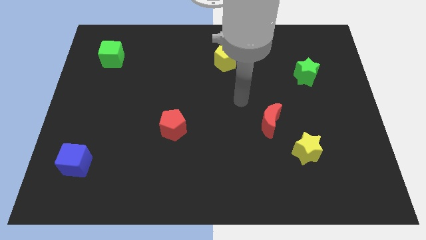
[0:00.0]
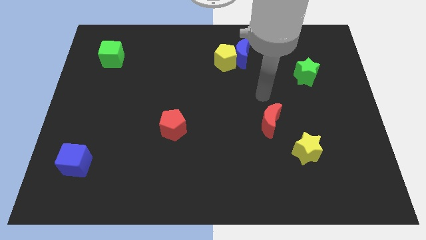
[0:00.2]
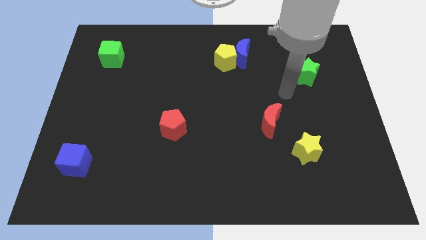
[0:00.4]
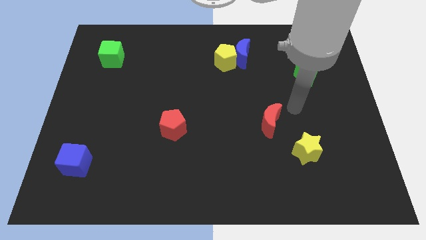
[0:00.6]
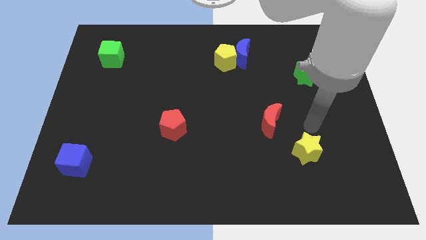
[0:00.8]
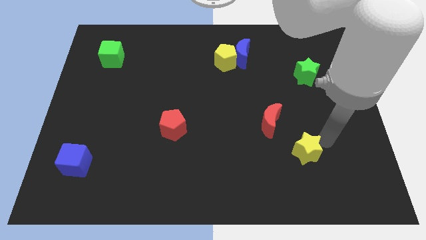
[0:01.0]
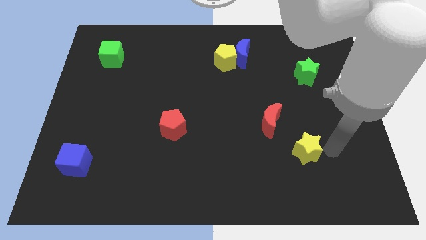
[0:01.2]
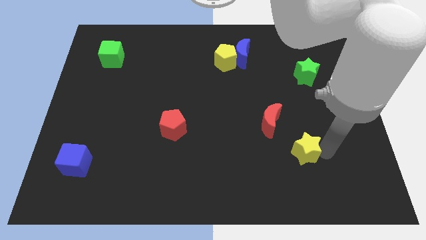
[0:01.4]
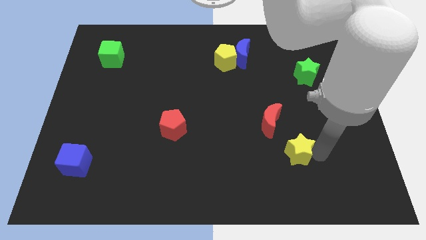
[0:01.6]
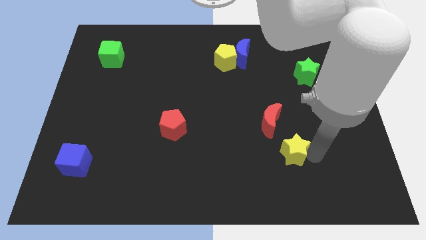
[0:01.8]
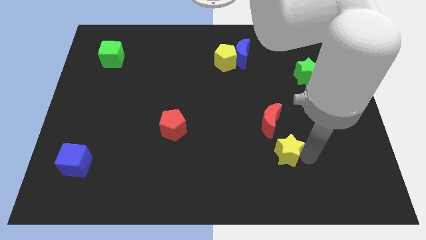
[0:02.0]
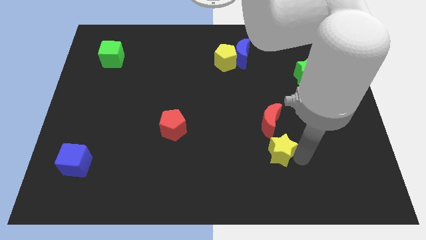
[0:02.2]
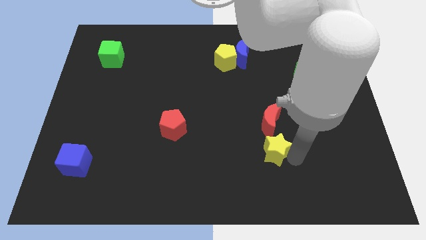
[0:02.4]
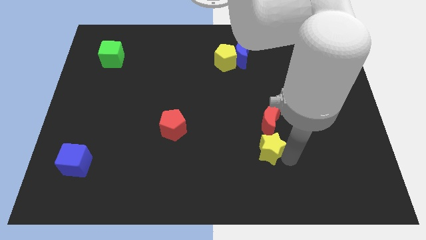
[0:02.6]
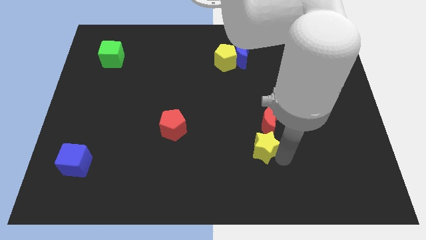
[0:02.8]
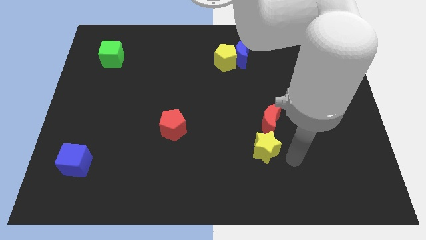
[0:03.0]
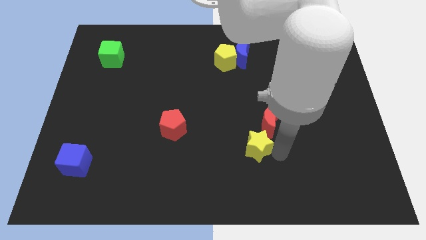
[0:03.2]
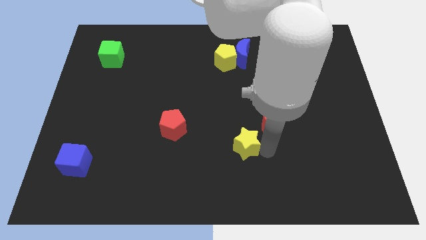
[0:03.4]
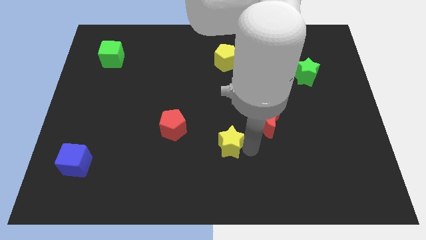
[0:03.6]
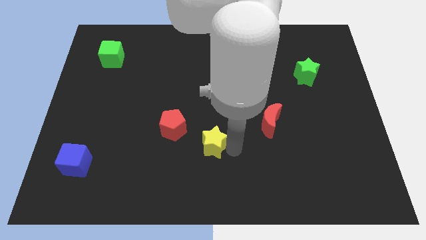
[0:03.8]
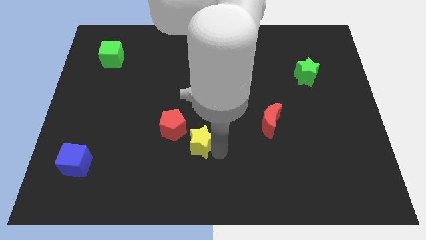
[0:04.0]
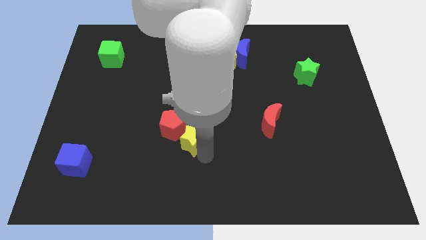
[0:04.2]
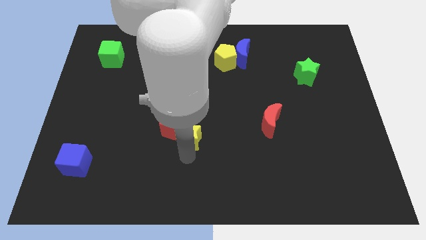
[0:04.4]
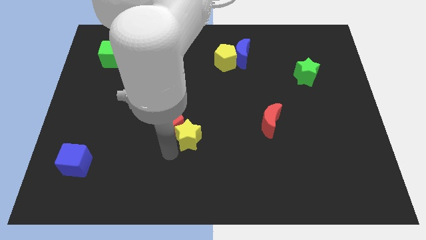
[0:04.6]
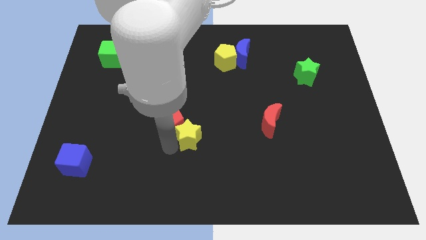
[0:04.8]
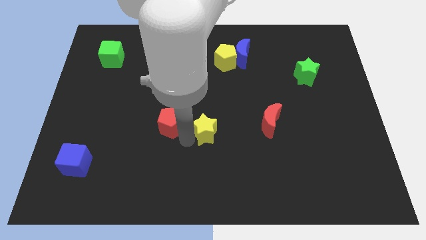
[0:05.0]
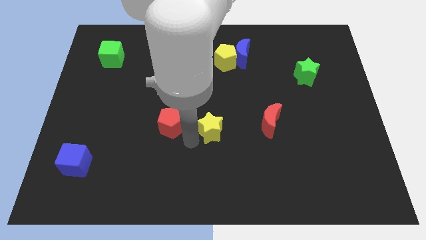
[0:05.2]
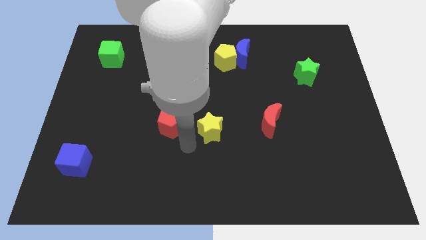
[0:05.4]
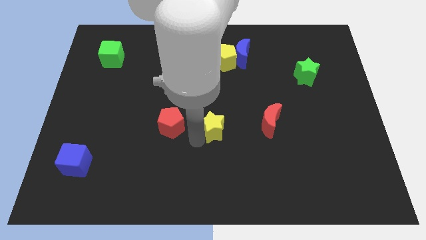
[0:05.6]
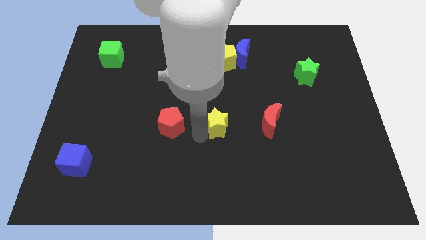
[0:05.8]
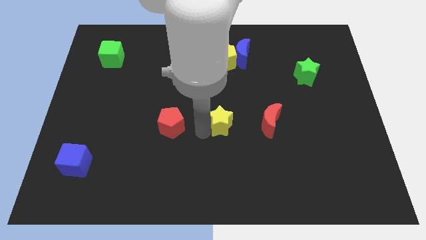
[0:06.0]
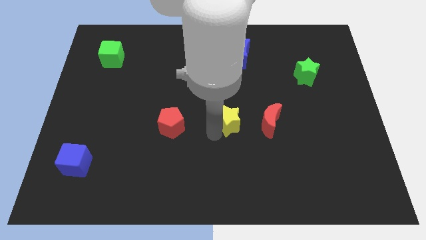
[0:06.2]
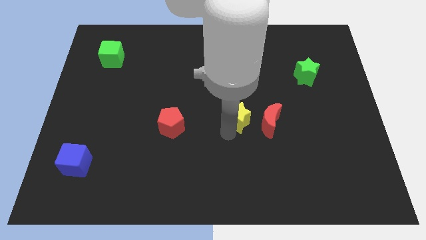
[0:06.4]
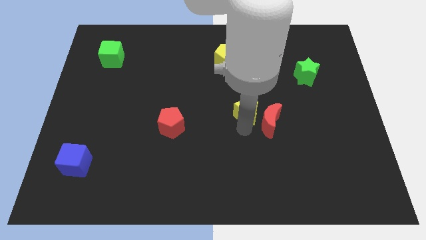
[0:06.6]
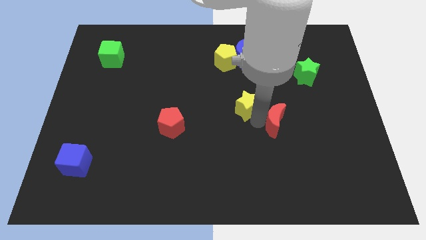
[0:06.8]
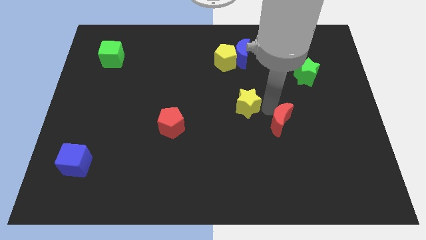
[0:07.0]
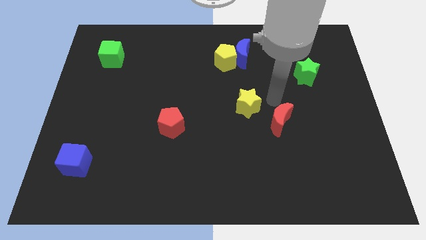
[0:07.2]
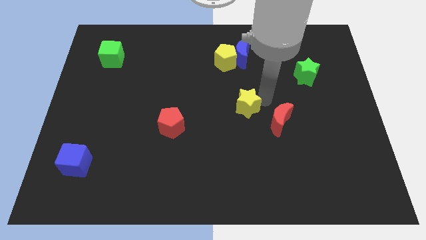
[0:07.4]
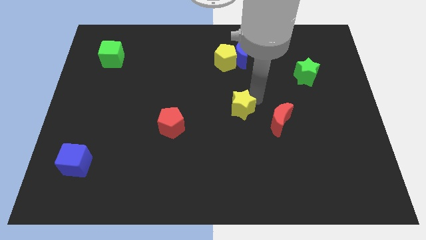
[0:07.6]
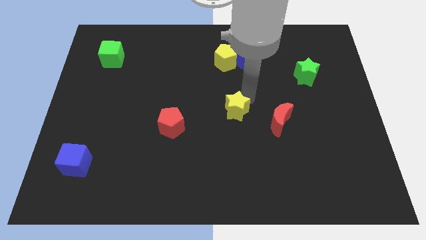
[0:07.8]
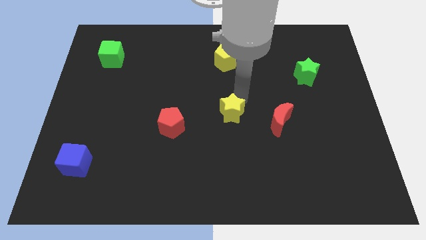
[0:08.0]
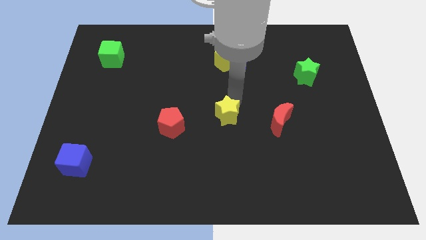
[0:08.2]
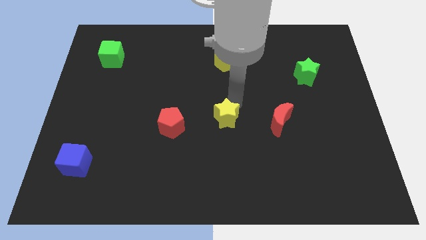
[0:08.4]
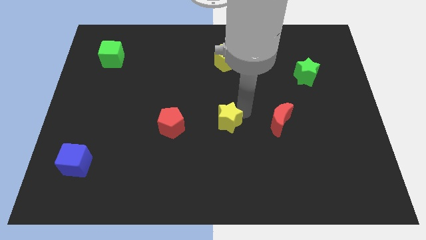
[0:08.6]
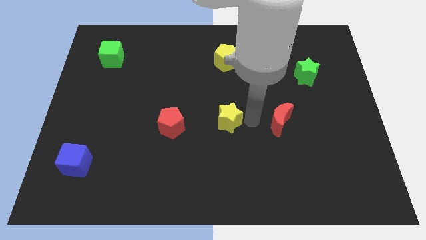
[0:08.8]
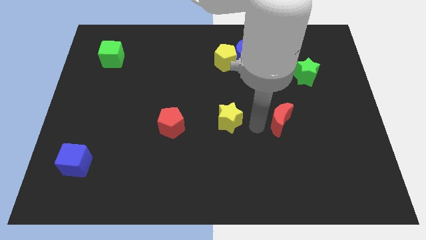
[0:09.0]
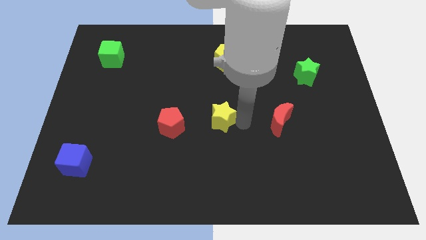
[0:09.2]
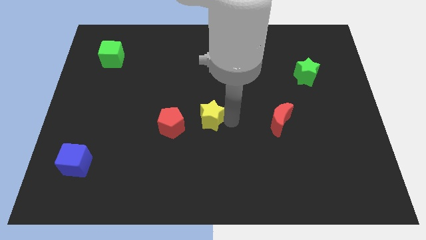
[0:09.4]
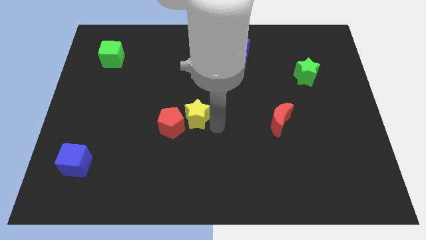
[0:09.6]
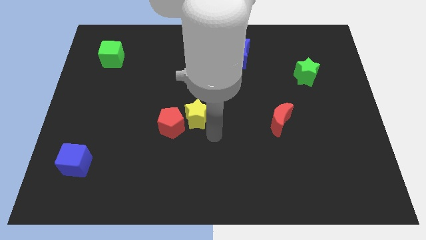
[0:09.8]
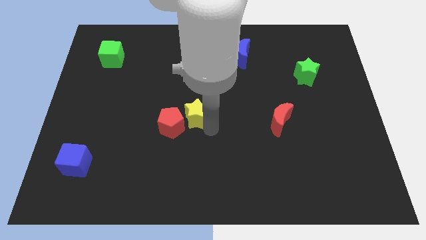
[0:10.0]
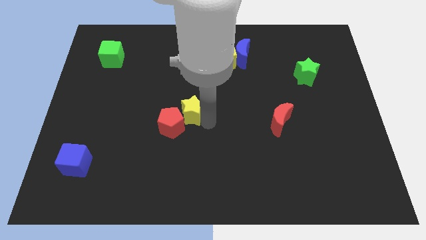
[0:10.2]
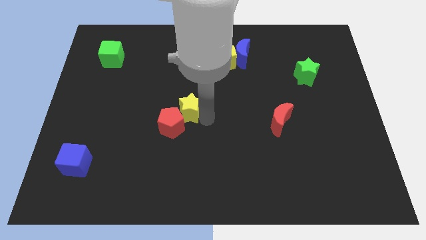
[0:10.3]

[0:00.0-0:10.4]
put the yellow star to the top side of the red pentagon

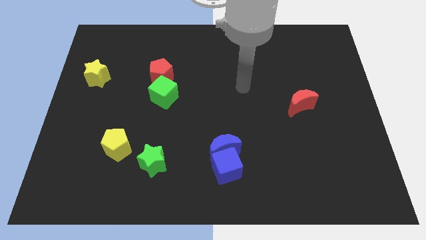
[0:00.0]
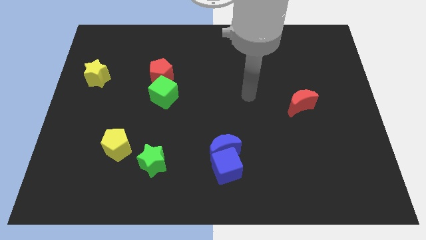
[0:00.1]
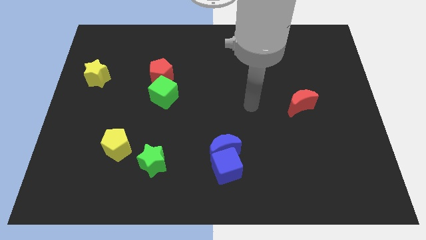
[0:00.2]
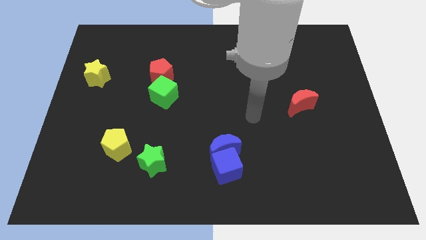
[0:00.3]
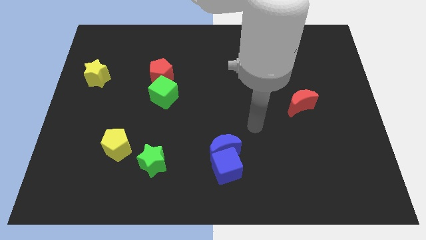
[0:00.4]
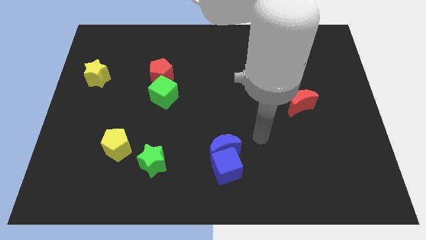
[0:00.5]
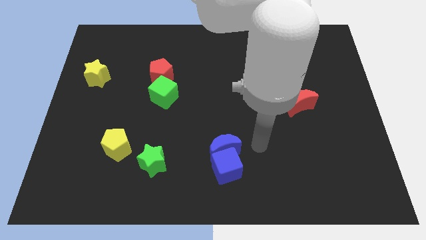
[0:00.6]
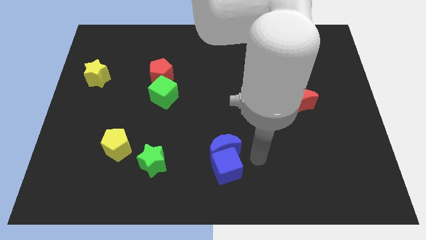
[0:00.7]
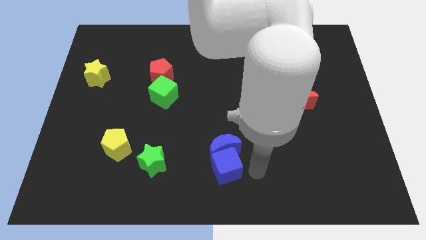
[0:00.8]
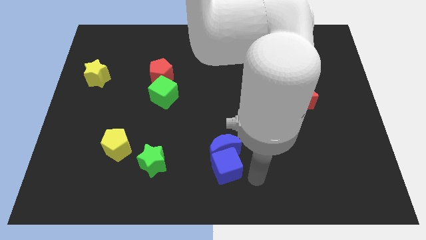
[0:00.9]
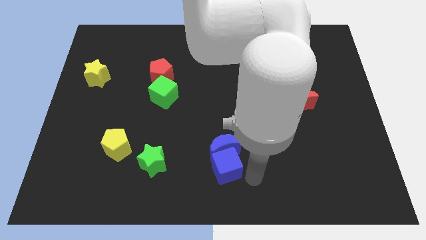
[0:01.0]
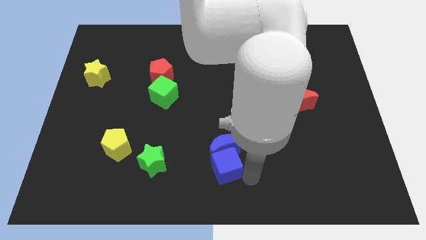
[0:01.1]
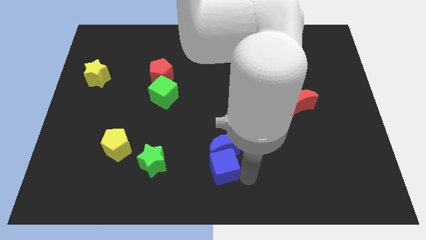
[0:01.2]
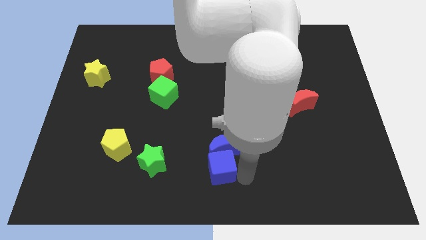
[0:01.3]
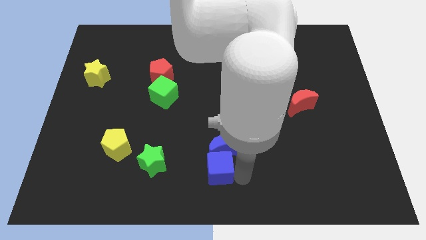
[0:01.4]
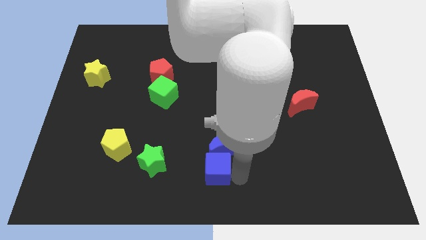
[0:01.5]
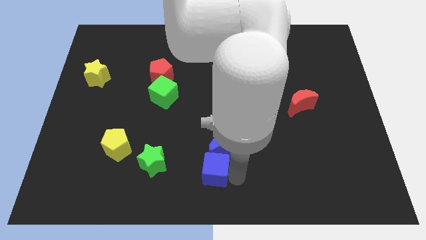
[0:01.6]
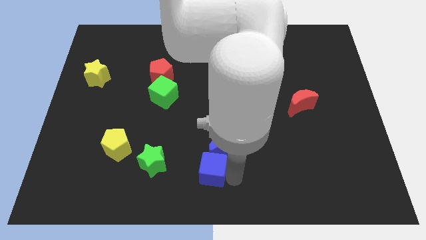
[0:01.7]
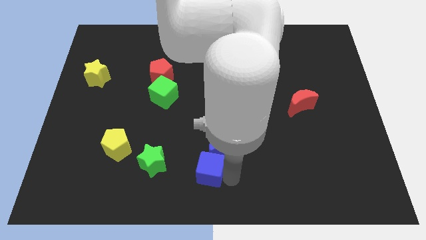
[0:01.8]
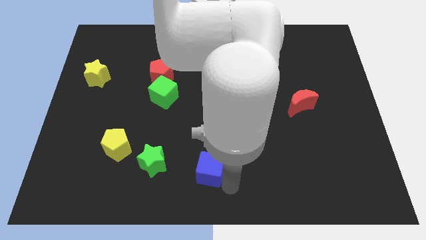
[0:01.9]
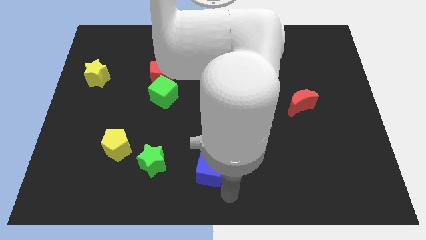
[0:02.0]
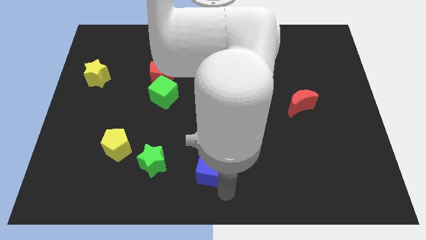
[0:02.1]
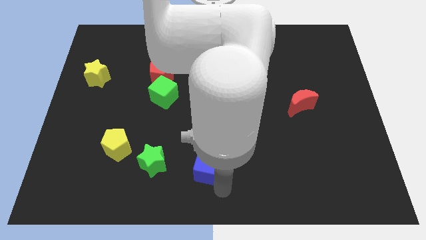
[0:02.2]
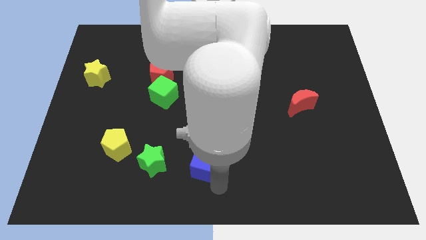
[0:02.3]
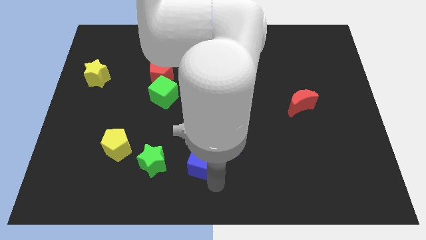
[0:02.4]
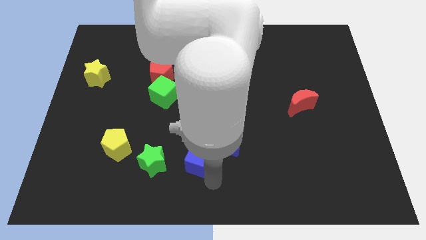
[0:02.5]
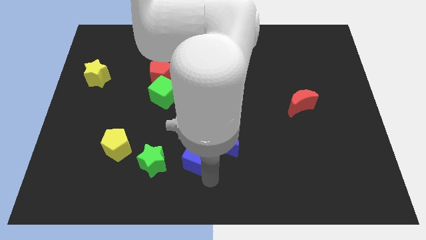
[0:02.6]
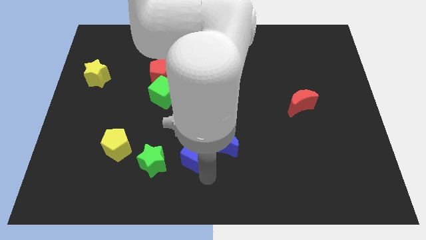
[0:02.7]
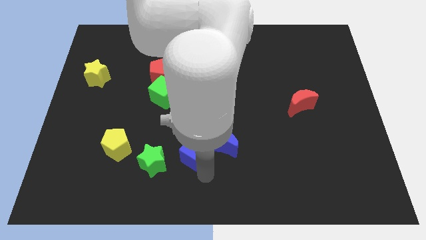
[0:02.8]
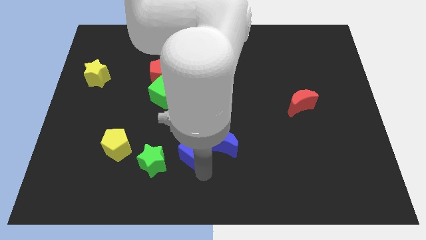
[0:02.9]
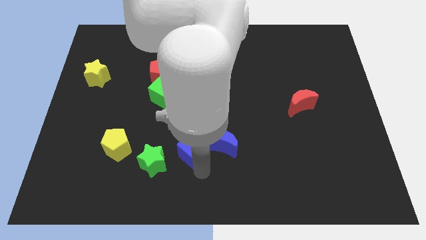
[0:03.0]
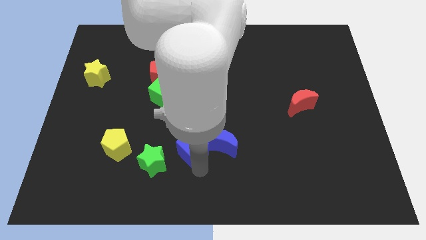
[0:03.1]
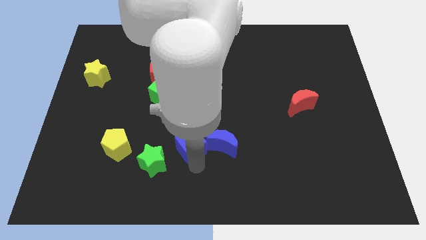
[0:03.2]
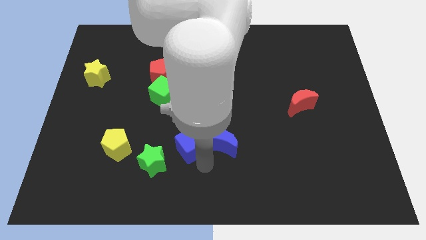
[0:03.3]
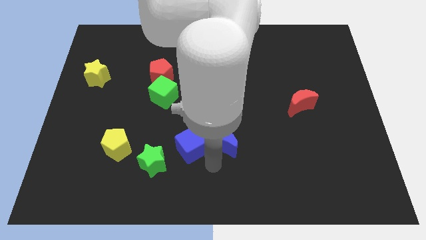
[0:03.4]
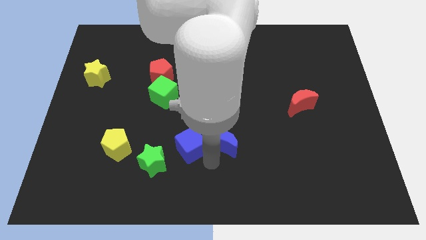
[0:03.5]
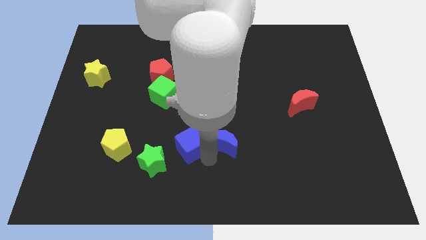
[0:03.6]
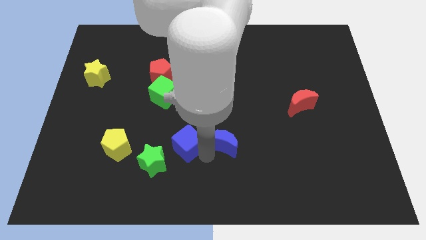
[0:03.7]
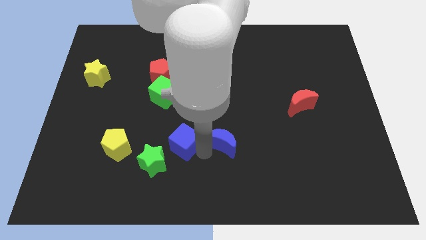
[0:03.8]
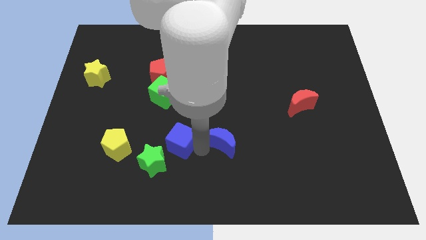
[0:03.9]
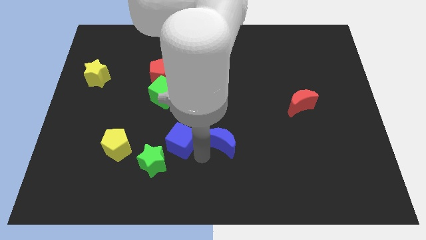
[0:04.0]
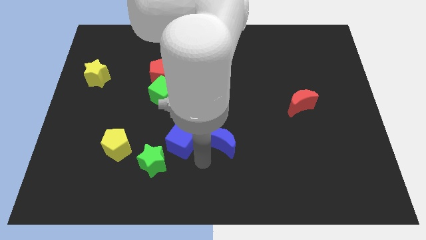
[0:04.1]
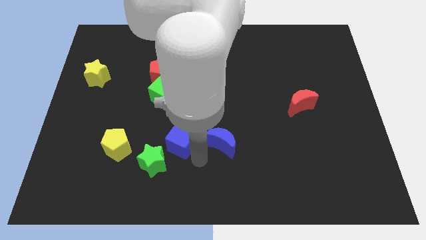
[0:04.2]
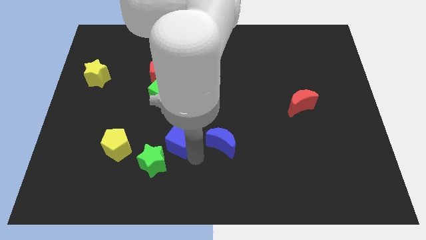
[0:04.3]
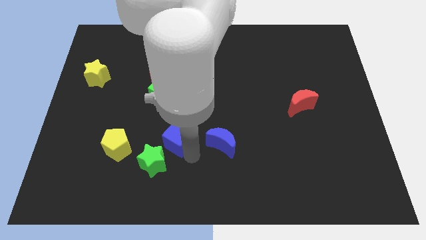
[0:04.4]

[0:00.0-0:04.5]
slide the blue cube to the top side of the green star
